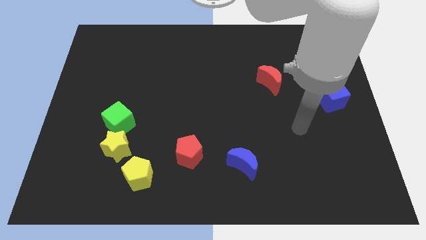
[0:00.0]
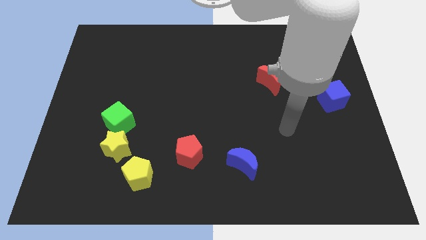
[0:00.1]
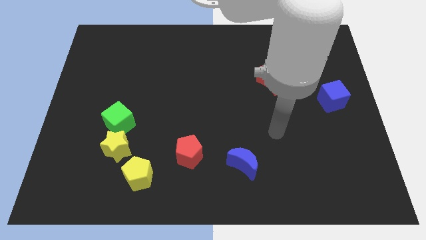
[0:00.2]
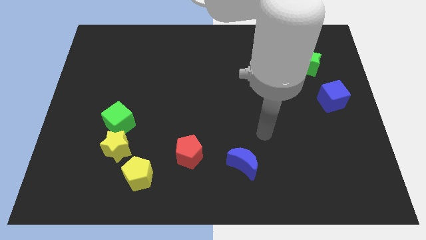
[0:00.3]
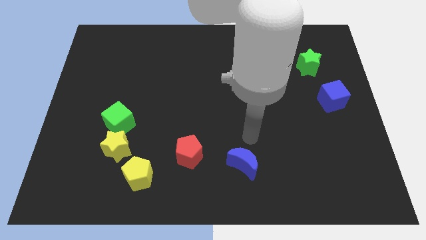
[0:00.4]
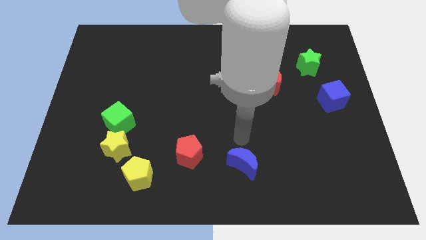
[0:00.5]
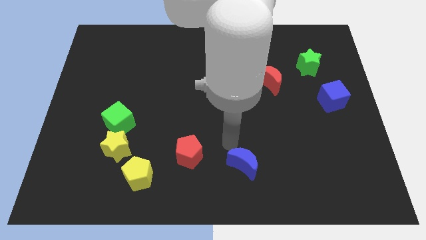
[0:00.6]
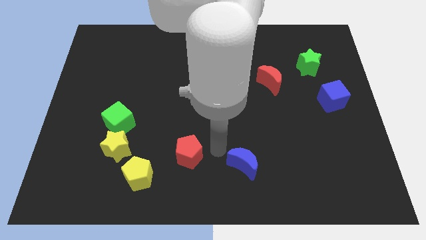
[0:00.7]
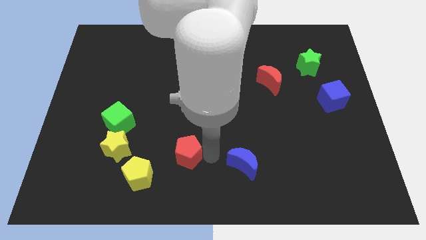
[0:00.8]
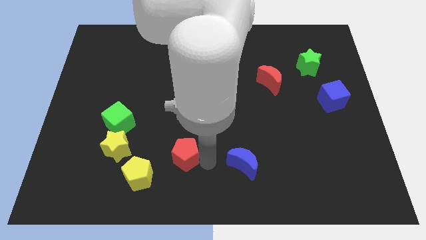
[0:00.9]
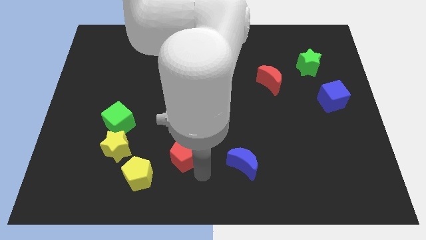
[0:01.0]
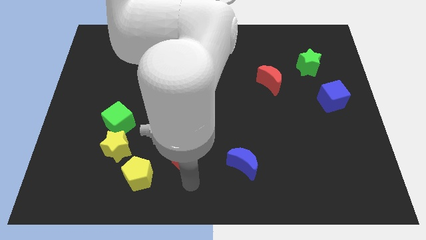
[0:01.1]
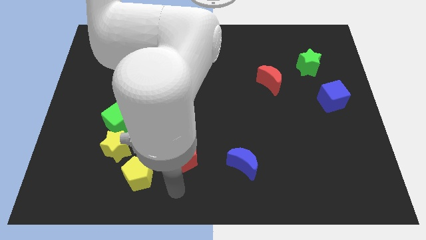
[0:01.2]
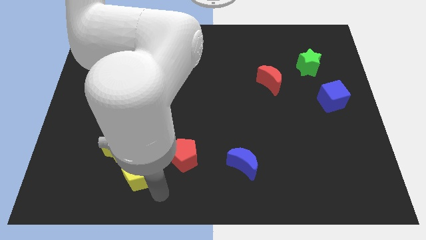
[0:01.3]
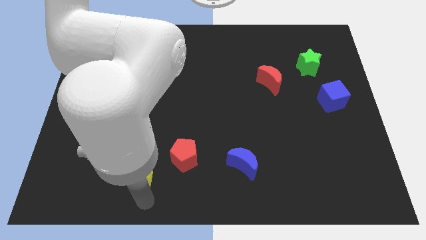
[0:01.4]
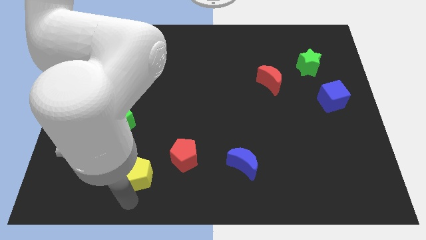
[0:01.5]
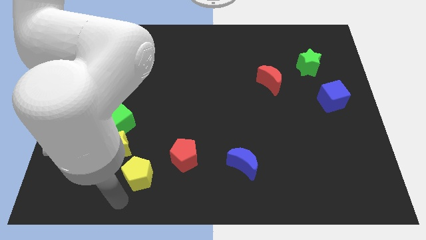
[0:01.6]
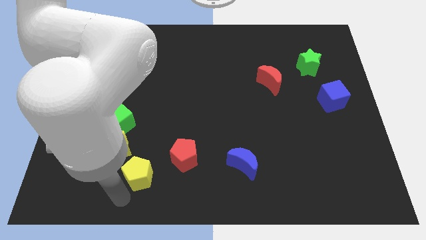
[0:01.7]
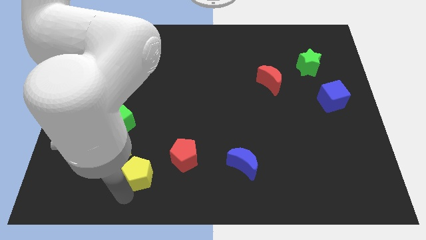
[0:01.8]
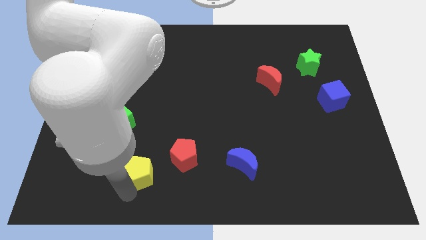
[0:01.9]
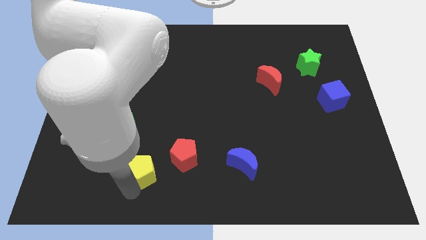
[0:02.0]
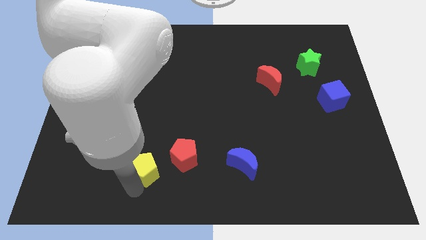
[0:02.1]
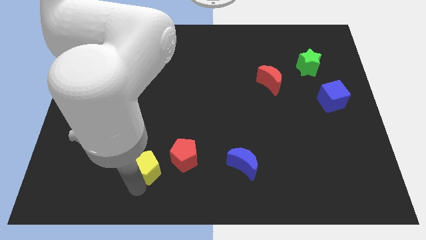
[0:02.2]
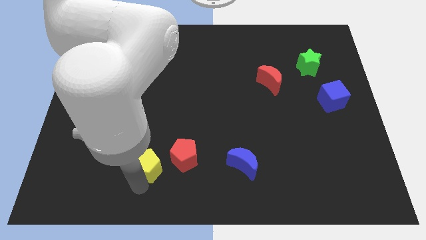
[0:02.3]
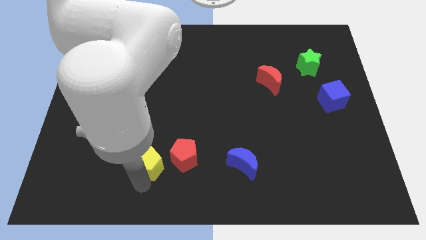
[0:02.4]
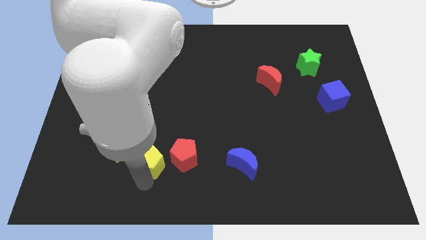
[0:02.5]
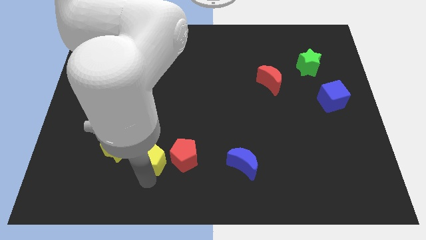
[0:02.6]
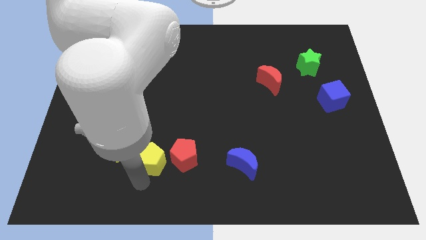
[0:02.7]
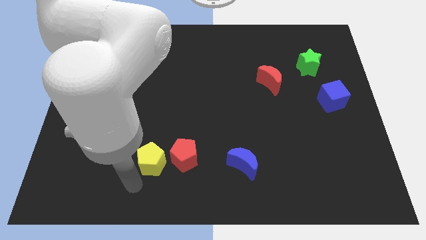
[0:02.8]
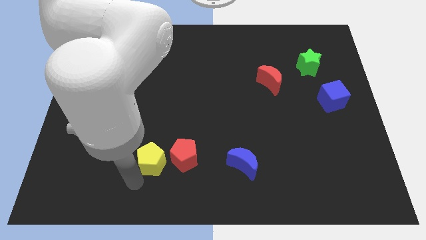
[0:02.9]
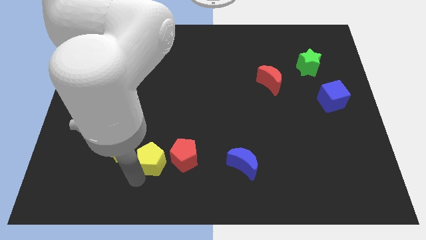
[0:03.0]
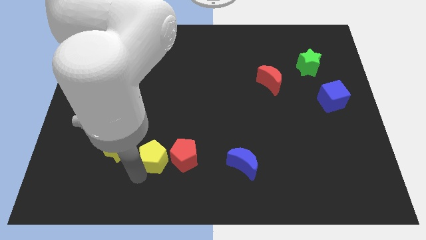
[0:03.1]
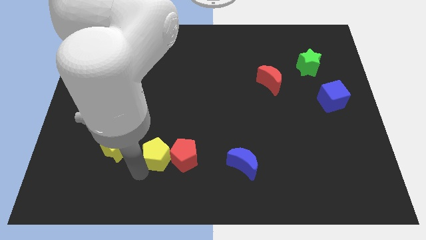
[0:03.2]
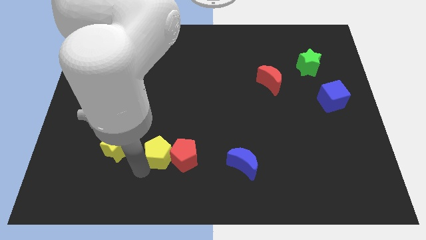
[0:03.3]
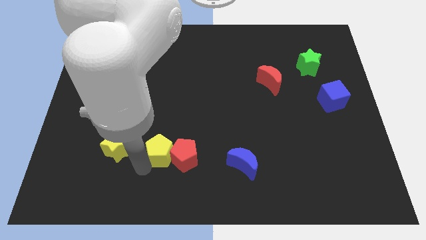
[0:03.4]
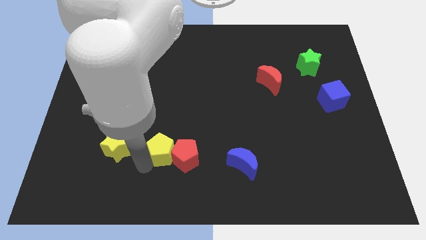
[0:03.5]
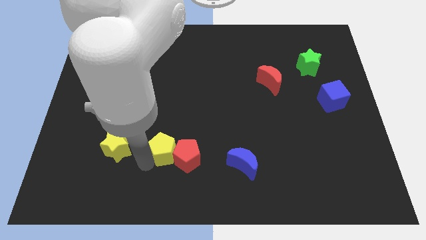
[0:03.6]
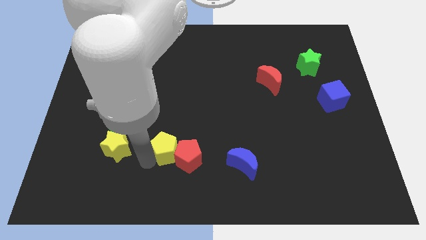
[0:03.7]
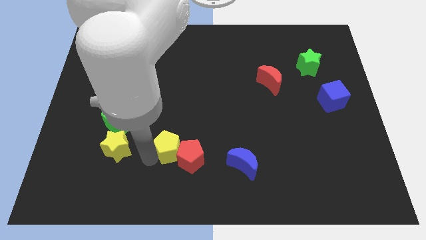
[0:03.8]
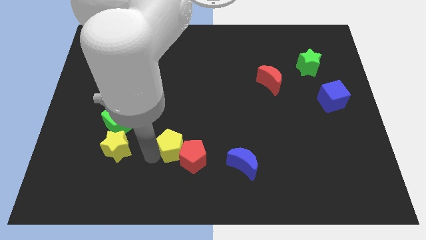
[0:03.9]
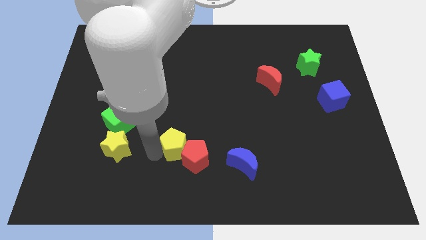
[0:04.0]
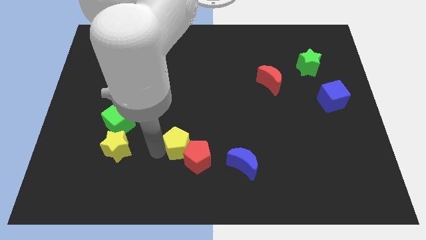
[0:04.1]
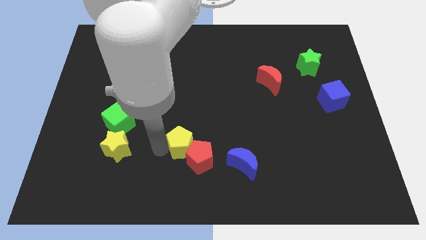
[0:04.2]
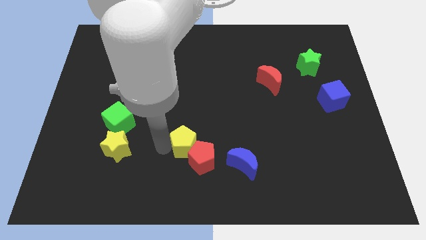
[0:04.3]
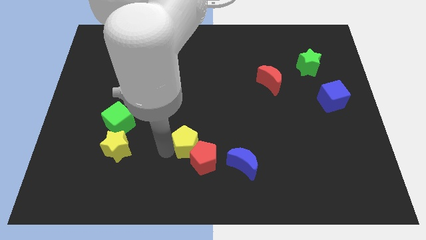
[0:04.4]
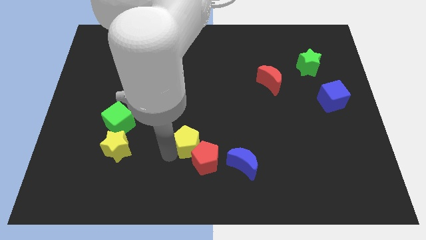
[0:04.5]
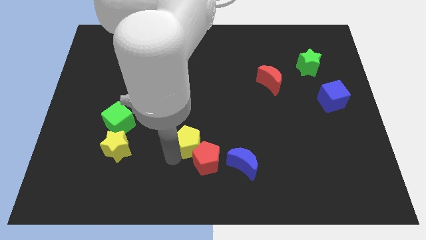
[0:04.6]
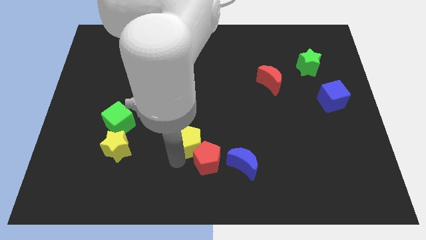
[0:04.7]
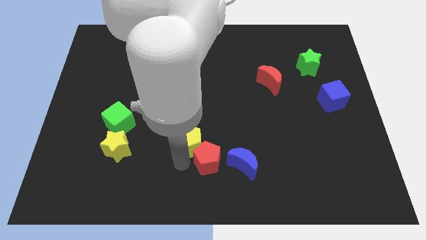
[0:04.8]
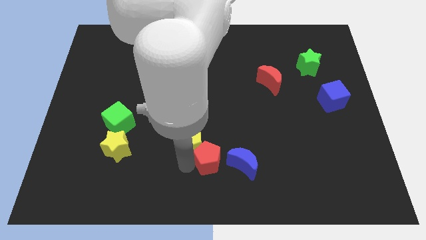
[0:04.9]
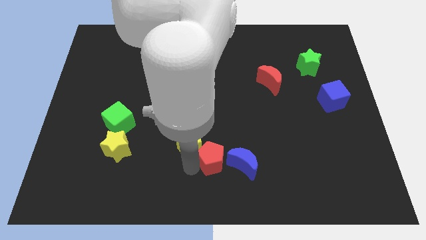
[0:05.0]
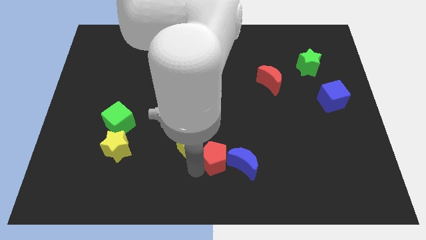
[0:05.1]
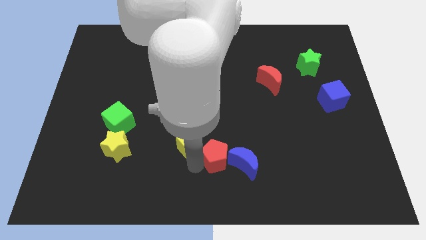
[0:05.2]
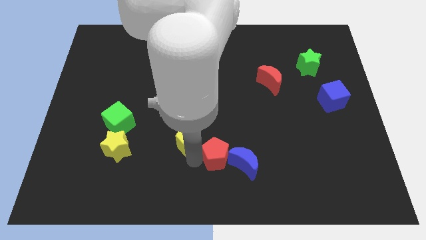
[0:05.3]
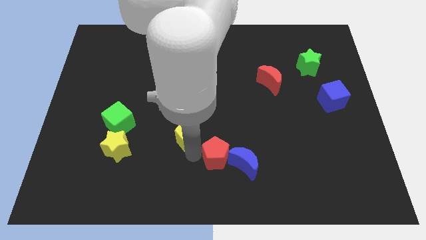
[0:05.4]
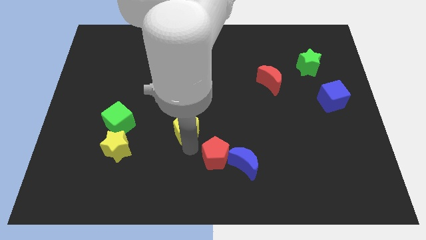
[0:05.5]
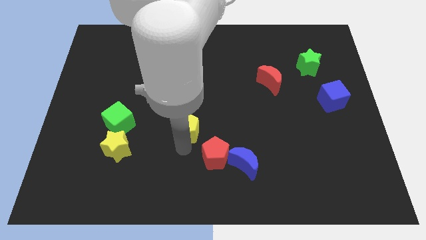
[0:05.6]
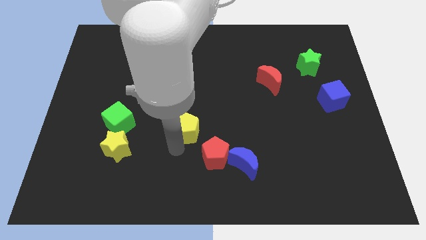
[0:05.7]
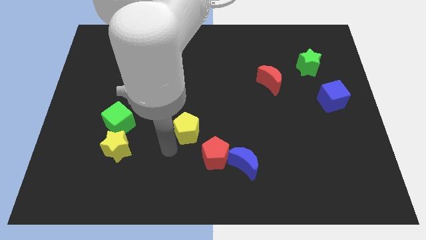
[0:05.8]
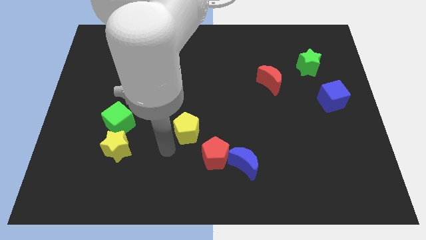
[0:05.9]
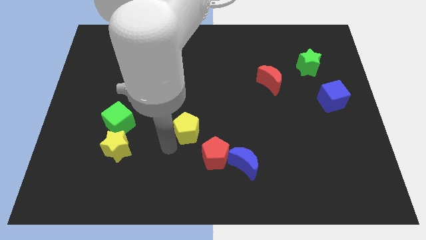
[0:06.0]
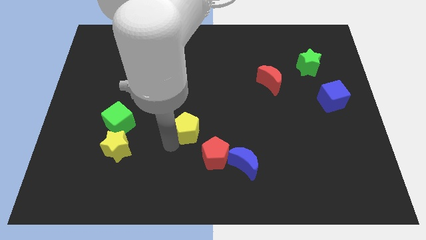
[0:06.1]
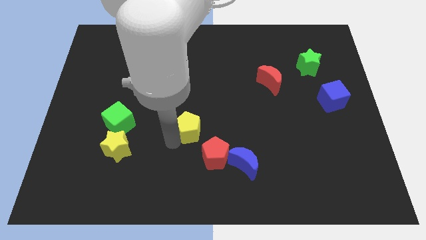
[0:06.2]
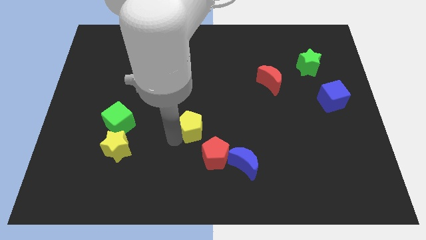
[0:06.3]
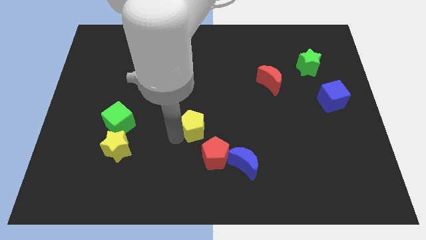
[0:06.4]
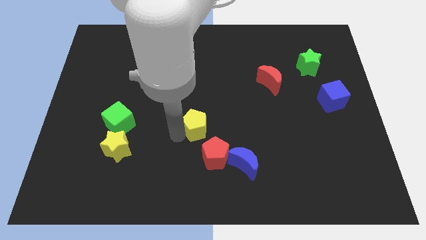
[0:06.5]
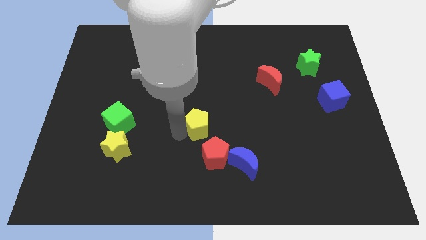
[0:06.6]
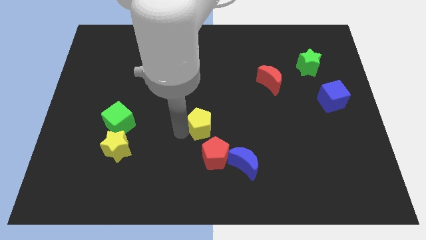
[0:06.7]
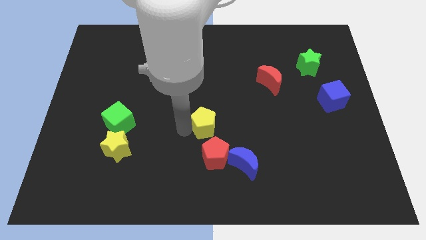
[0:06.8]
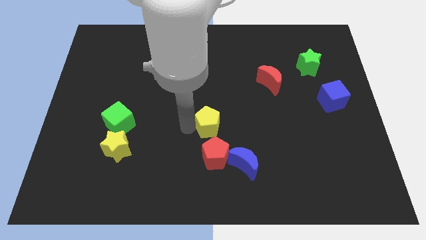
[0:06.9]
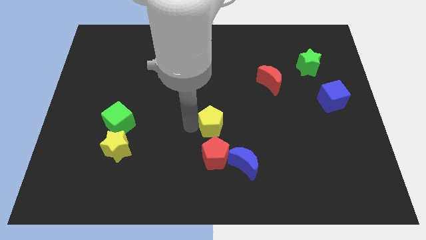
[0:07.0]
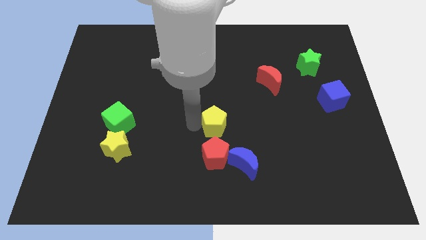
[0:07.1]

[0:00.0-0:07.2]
slide the yellow pentagon upwards and right diagonally

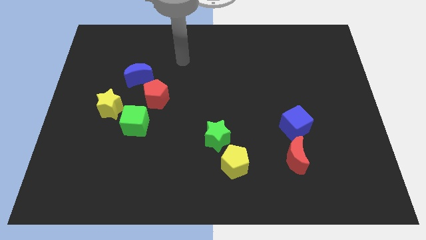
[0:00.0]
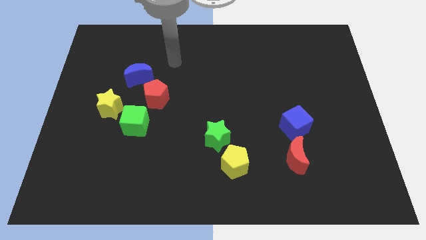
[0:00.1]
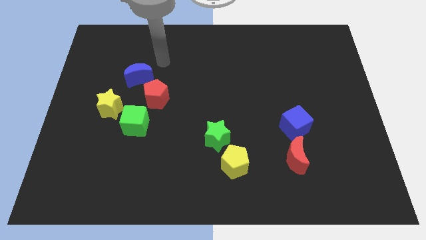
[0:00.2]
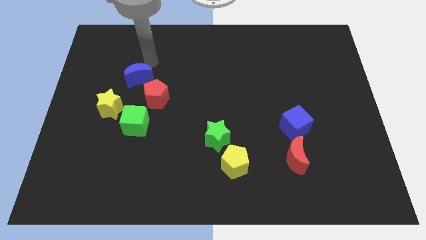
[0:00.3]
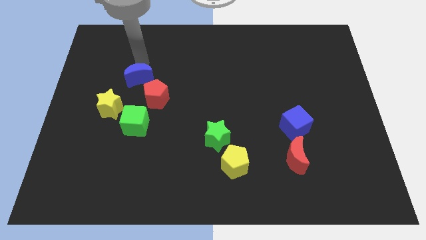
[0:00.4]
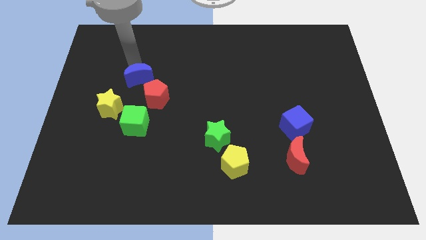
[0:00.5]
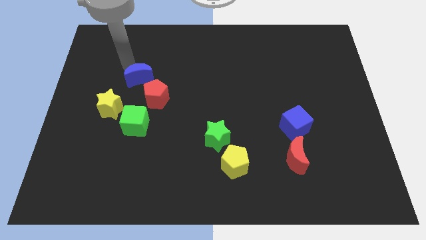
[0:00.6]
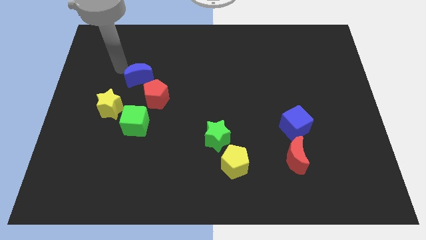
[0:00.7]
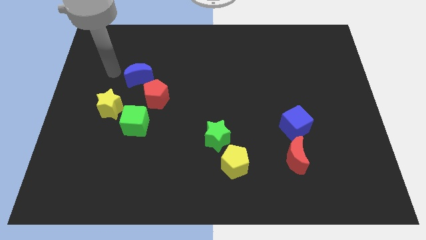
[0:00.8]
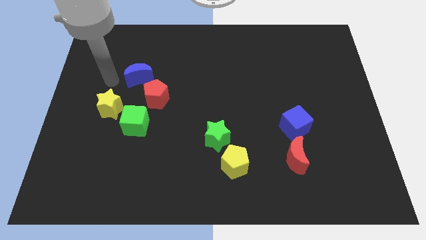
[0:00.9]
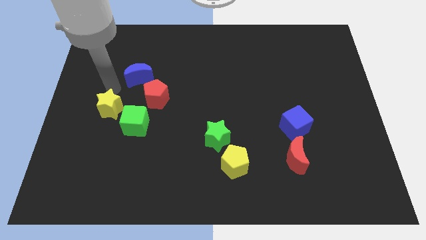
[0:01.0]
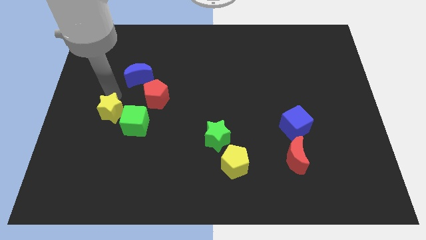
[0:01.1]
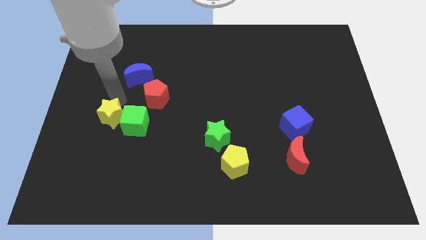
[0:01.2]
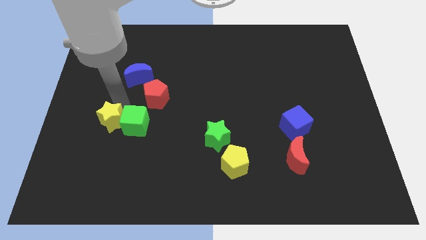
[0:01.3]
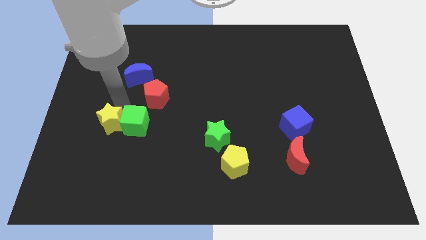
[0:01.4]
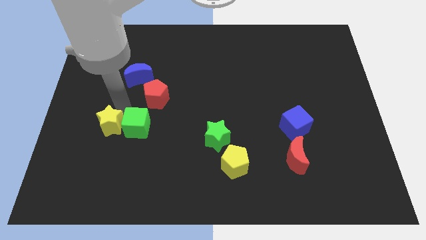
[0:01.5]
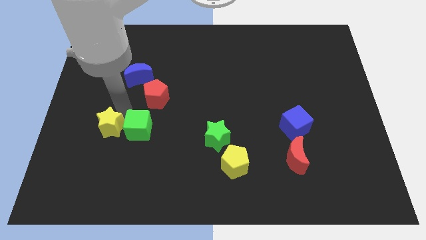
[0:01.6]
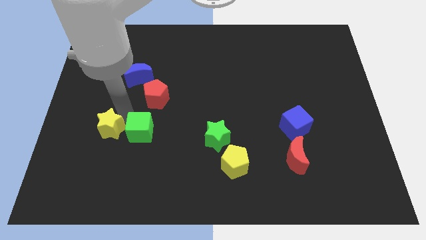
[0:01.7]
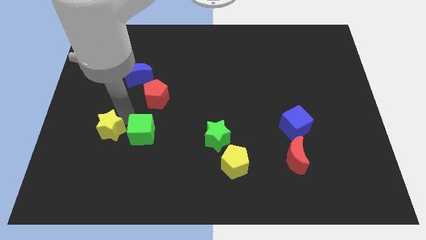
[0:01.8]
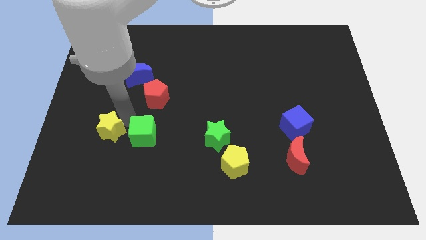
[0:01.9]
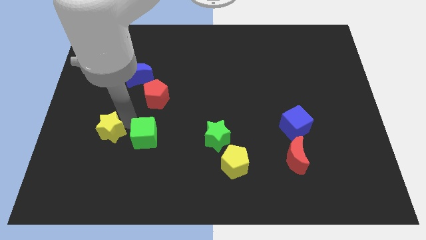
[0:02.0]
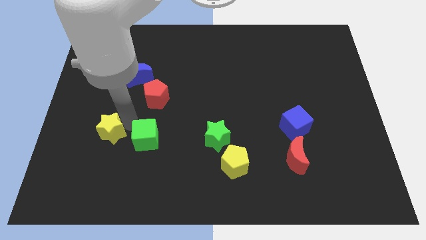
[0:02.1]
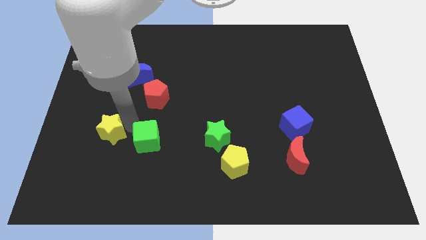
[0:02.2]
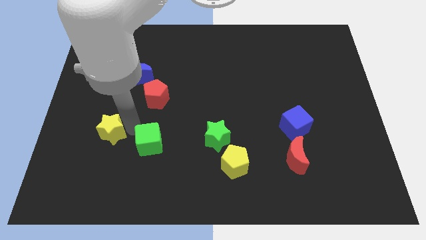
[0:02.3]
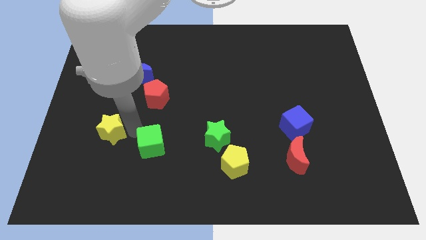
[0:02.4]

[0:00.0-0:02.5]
move the green cube somewhat downwards and to the right
